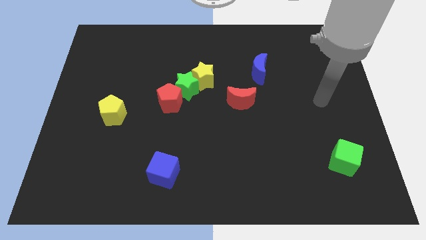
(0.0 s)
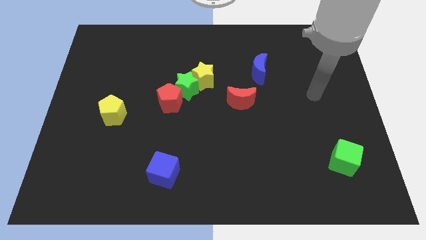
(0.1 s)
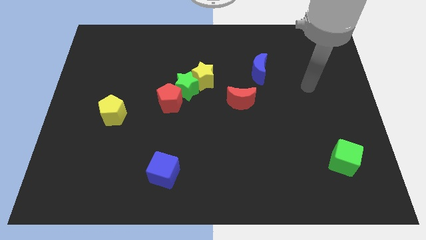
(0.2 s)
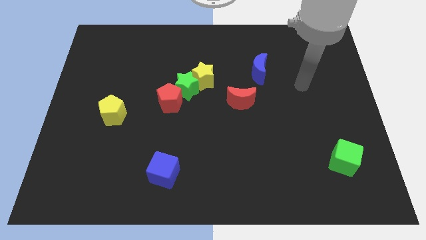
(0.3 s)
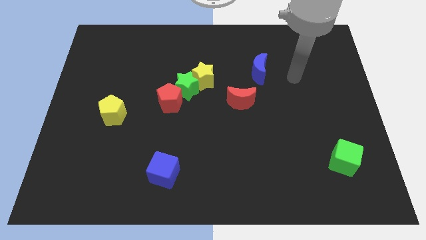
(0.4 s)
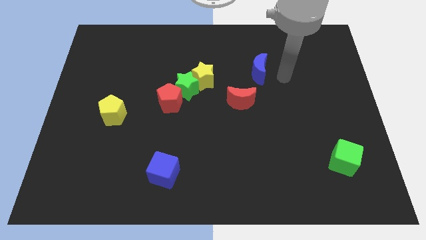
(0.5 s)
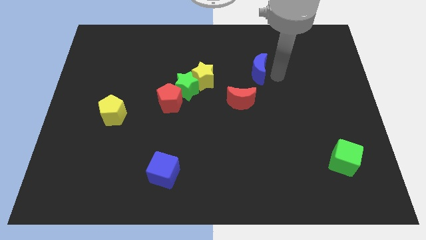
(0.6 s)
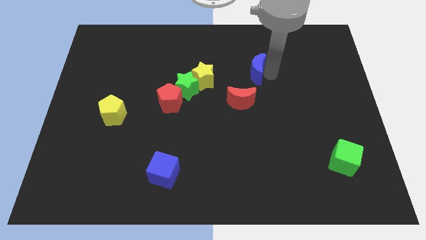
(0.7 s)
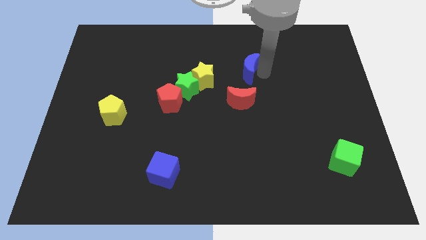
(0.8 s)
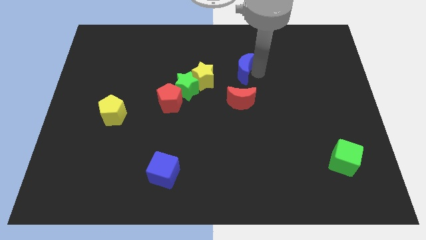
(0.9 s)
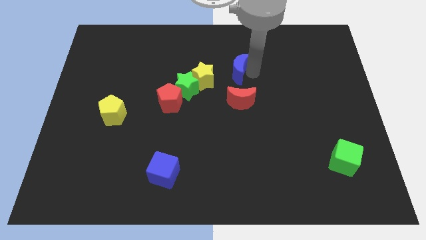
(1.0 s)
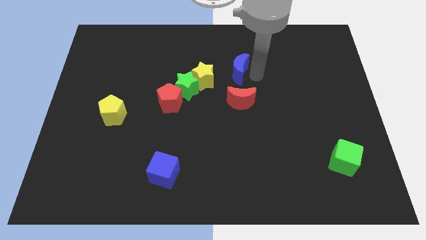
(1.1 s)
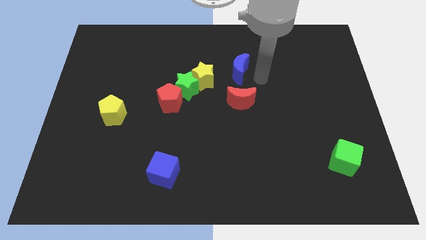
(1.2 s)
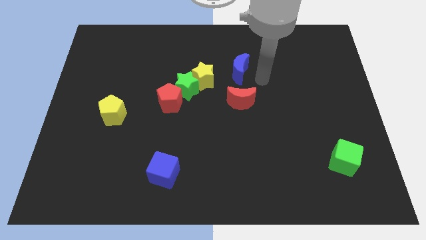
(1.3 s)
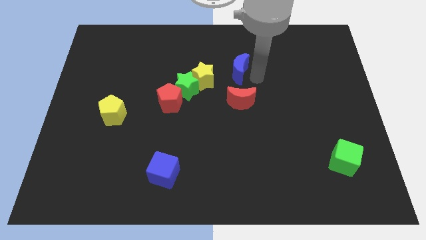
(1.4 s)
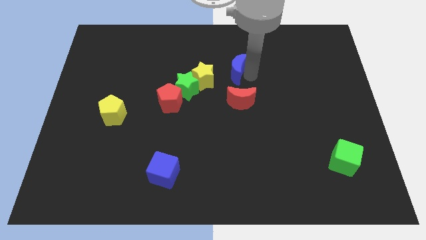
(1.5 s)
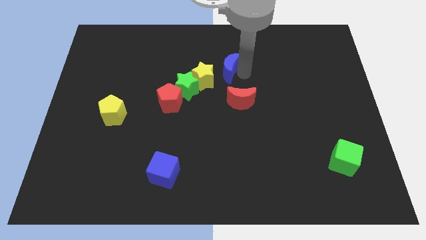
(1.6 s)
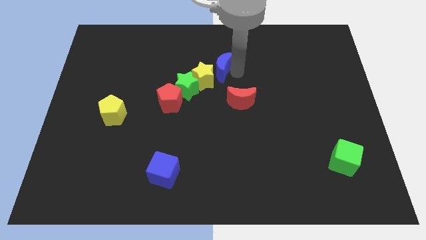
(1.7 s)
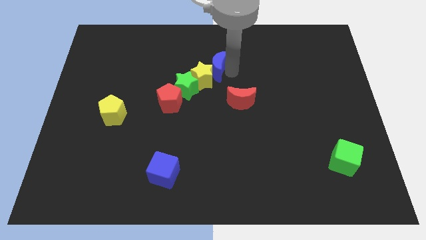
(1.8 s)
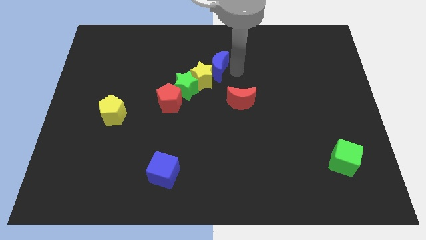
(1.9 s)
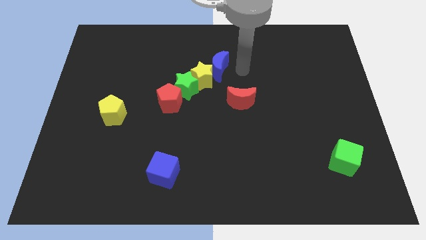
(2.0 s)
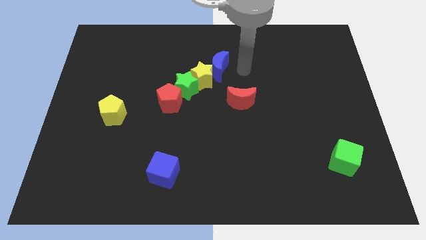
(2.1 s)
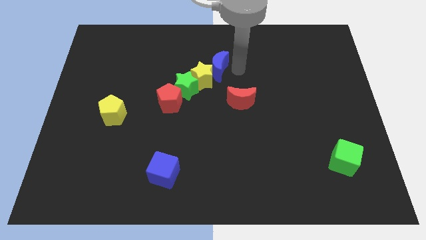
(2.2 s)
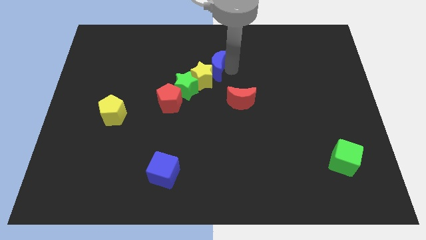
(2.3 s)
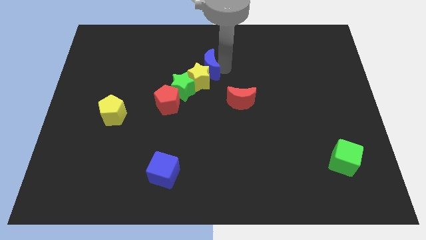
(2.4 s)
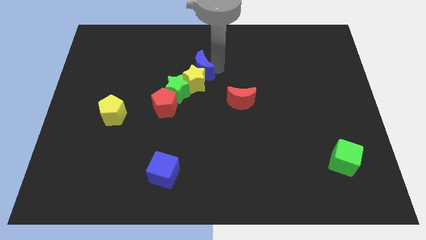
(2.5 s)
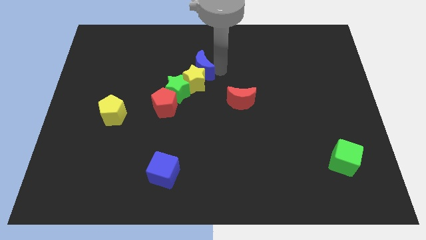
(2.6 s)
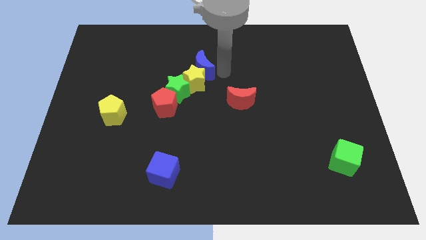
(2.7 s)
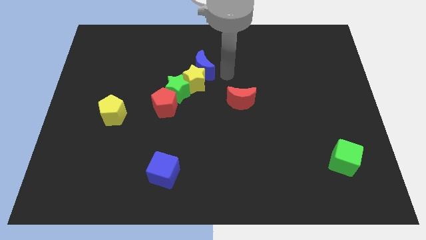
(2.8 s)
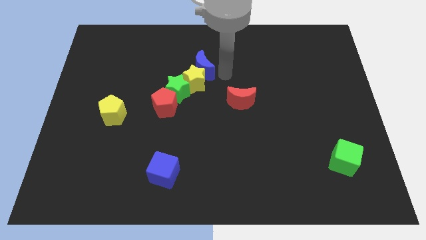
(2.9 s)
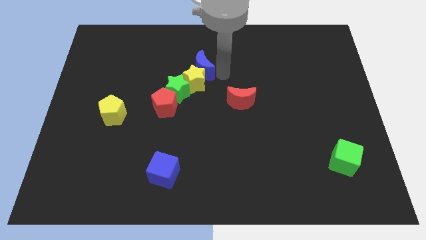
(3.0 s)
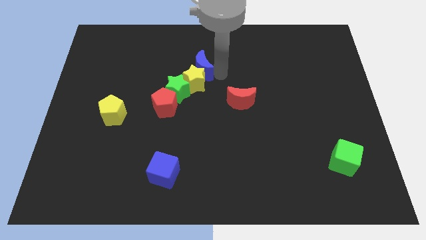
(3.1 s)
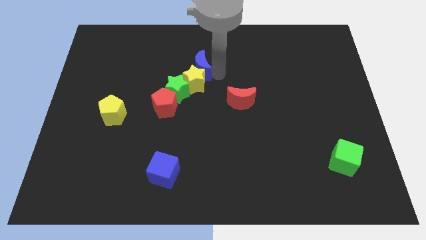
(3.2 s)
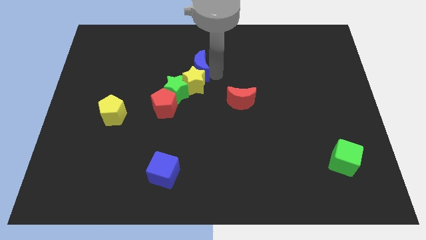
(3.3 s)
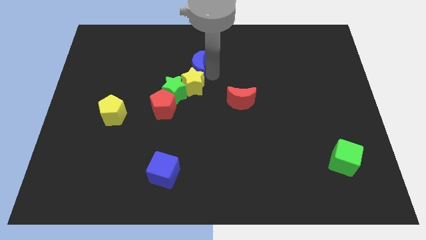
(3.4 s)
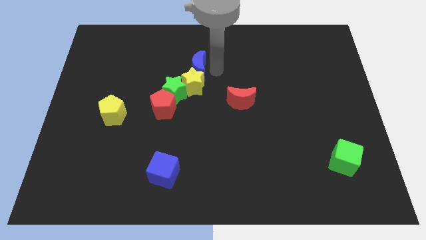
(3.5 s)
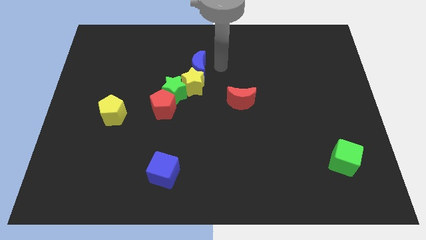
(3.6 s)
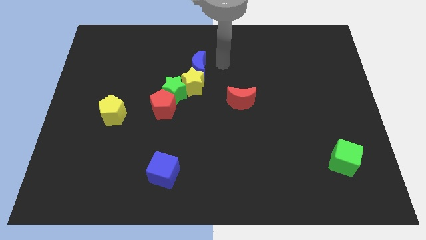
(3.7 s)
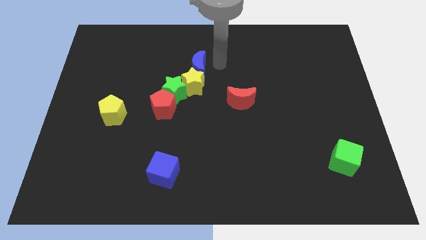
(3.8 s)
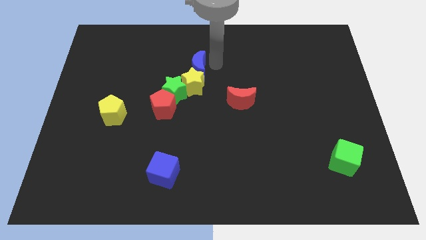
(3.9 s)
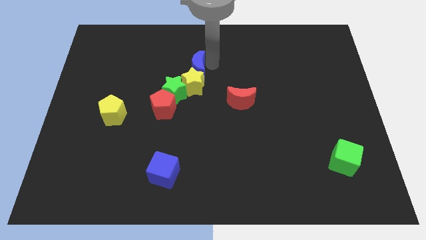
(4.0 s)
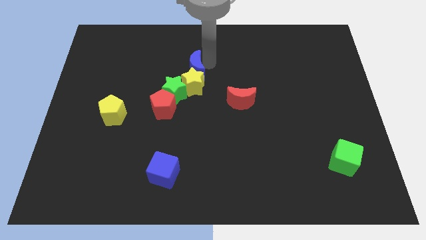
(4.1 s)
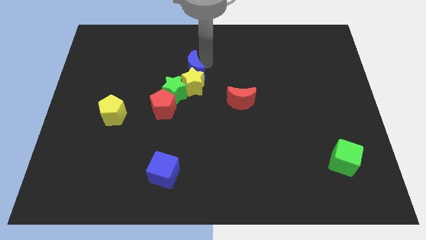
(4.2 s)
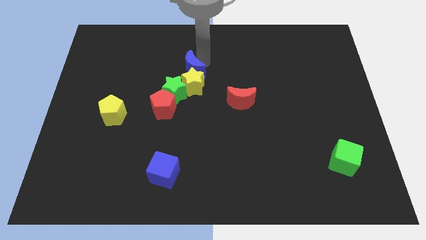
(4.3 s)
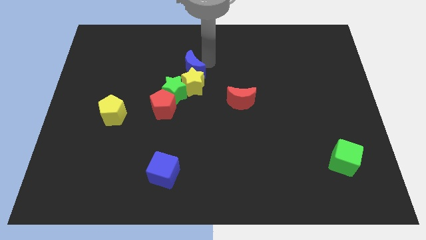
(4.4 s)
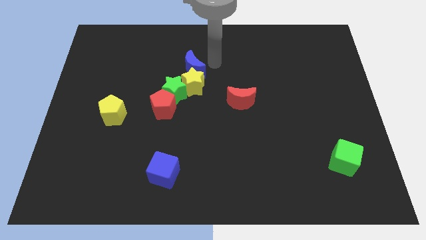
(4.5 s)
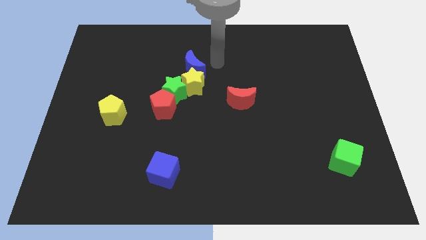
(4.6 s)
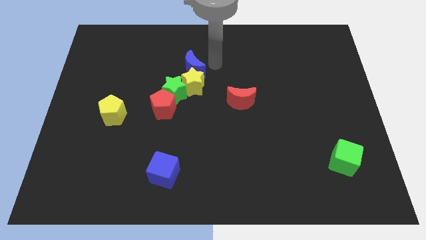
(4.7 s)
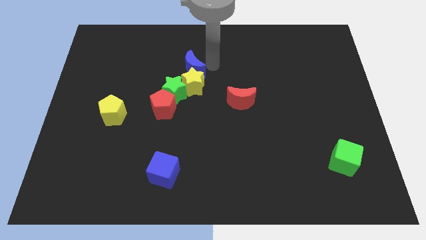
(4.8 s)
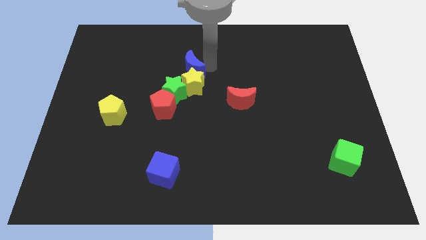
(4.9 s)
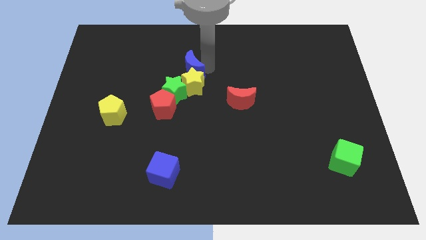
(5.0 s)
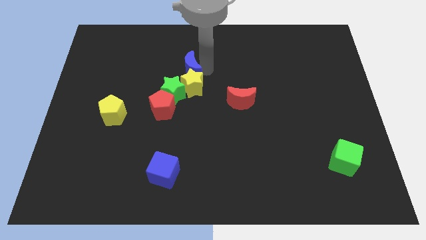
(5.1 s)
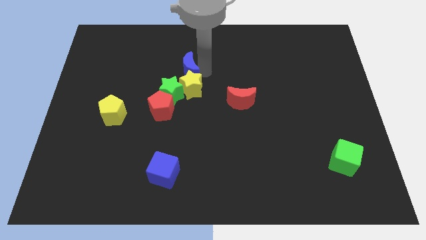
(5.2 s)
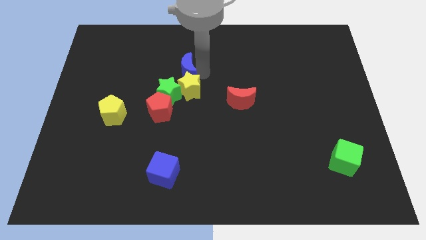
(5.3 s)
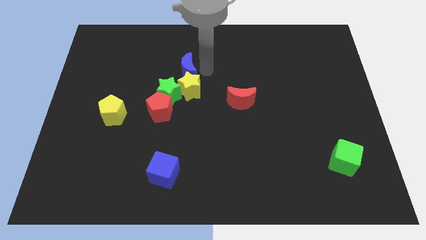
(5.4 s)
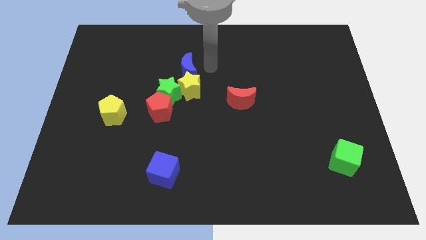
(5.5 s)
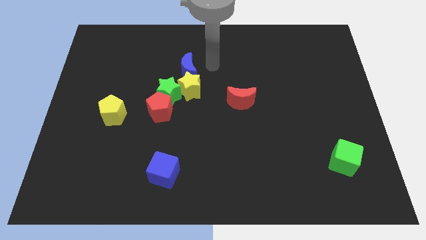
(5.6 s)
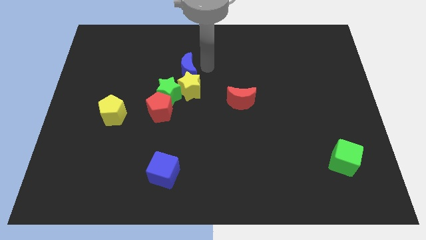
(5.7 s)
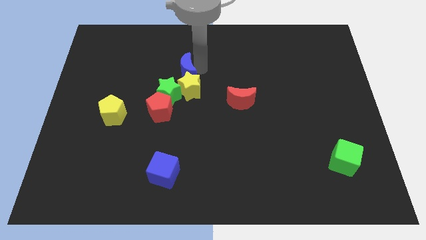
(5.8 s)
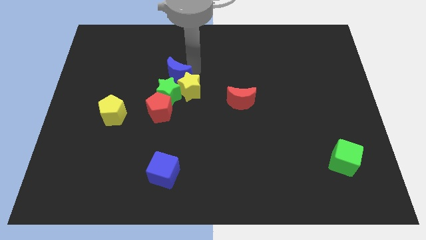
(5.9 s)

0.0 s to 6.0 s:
put the blue moon to the top of the red pentagon

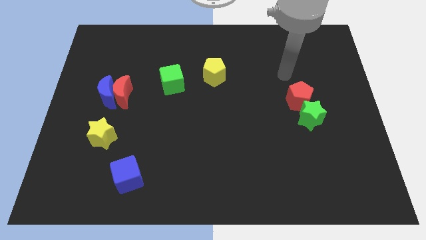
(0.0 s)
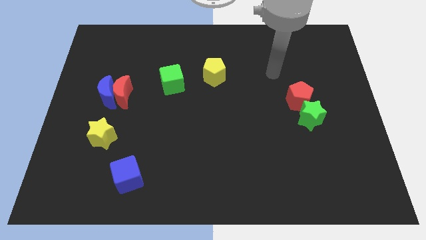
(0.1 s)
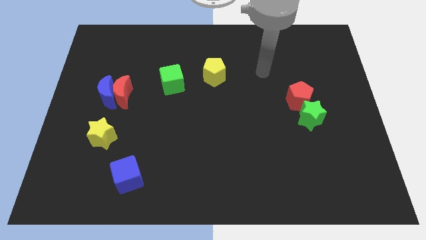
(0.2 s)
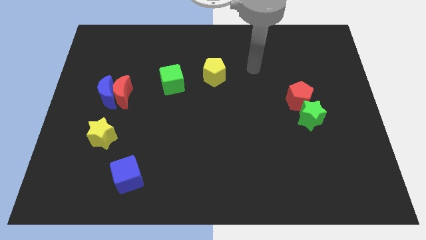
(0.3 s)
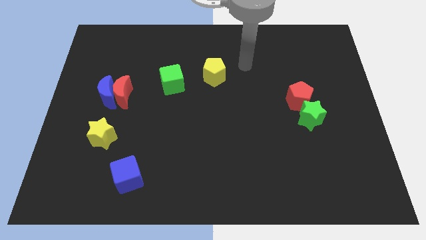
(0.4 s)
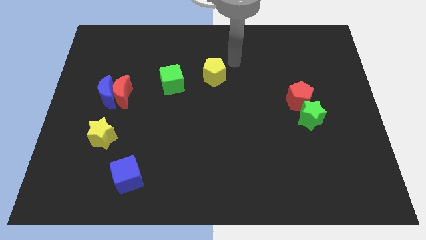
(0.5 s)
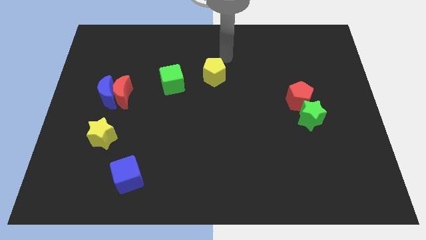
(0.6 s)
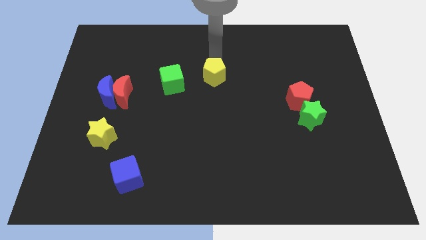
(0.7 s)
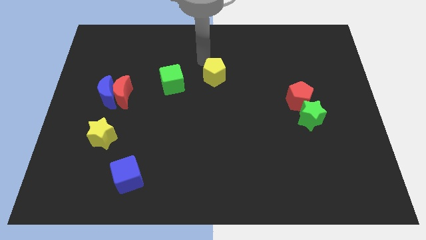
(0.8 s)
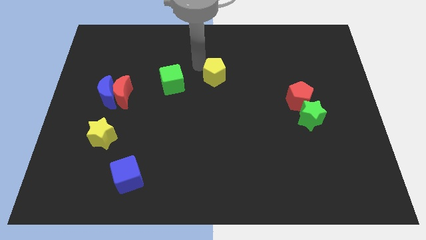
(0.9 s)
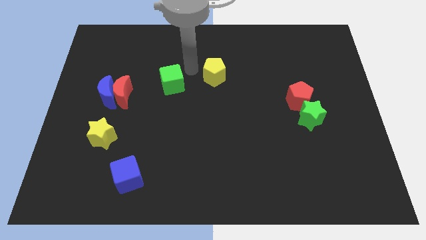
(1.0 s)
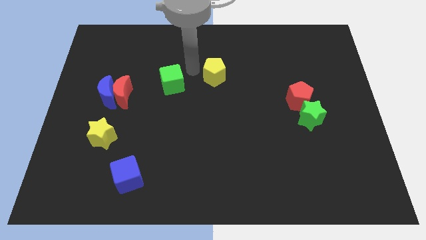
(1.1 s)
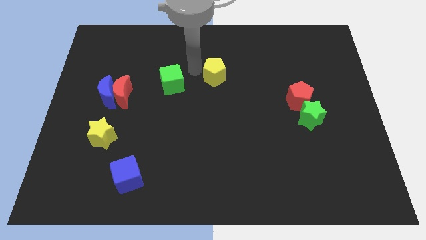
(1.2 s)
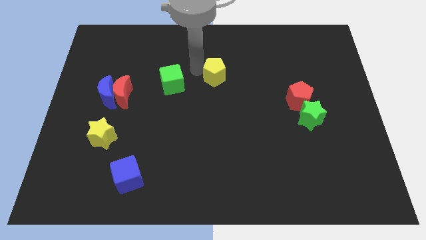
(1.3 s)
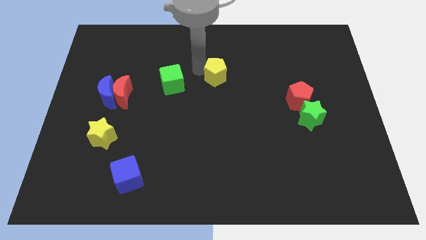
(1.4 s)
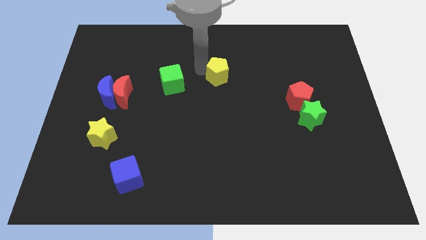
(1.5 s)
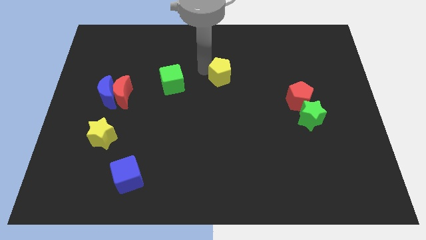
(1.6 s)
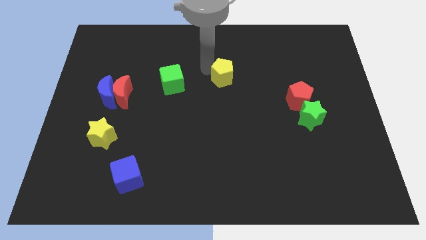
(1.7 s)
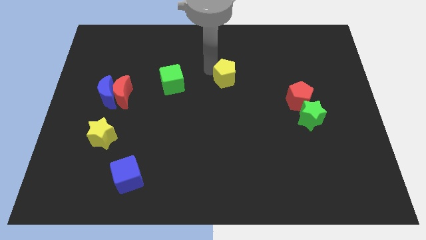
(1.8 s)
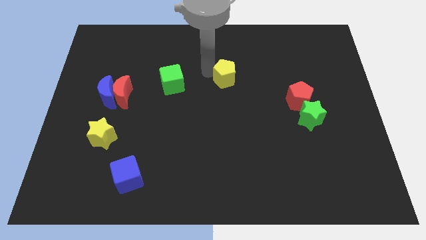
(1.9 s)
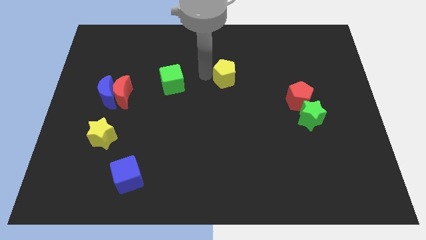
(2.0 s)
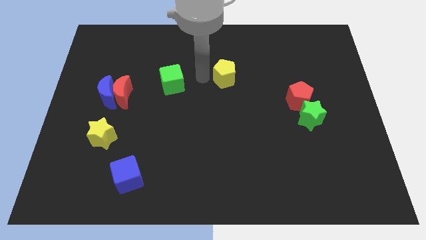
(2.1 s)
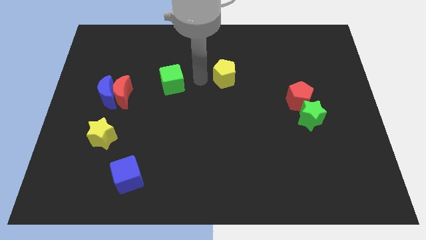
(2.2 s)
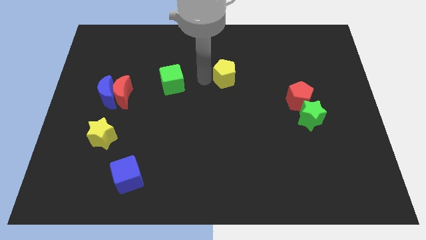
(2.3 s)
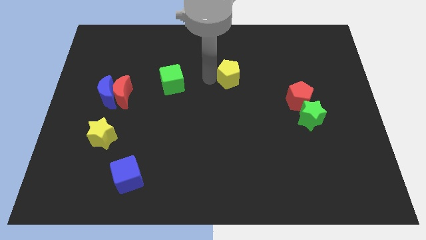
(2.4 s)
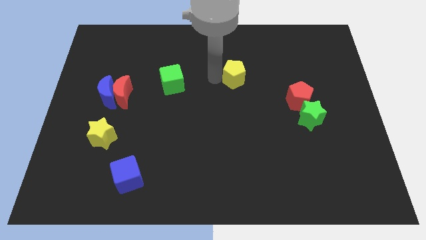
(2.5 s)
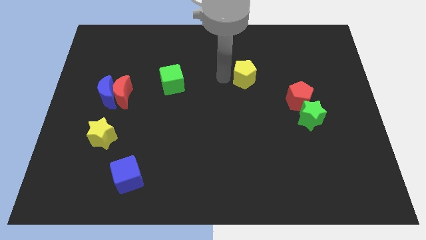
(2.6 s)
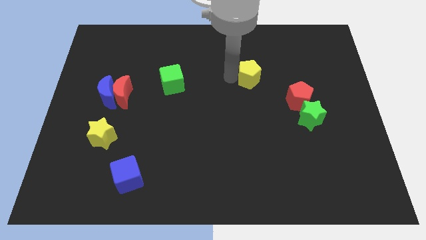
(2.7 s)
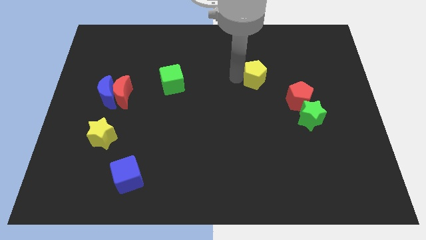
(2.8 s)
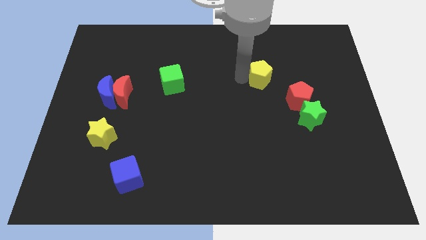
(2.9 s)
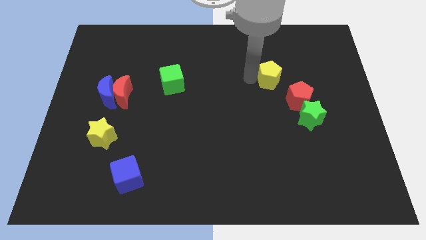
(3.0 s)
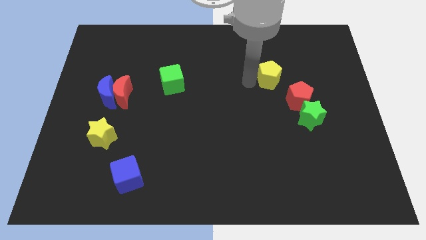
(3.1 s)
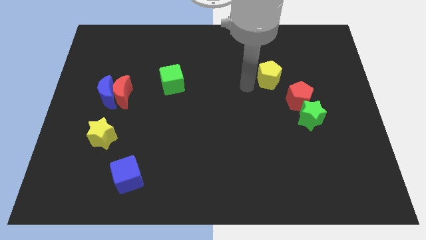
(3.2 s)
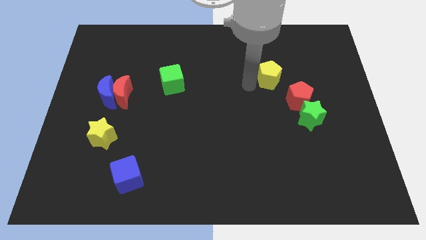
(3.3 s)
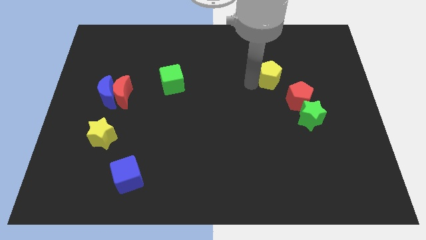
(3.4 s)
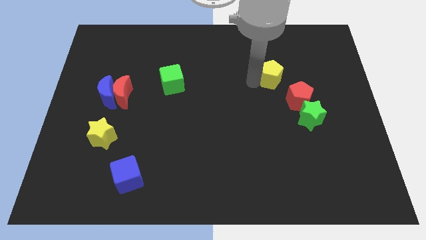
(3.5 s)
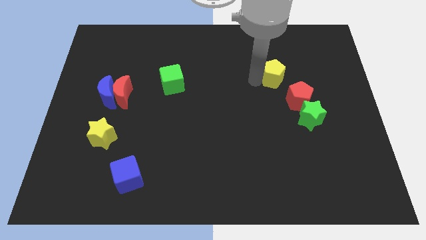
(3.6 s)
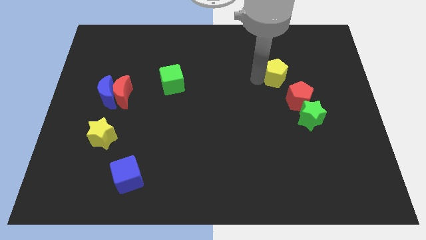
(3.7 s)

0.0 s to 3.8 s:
push the yellow pentagon above the red pentagon
